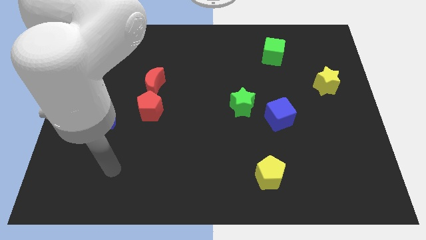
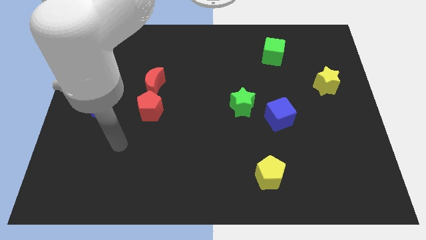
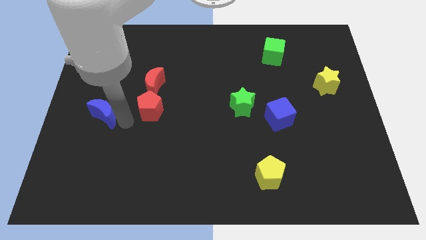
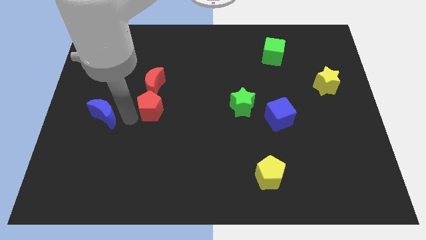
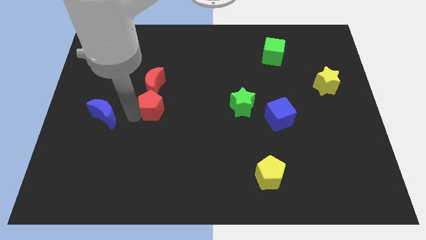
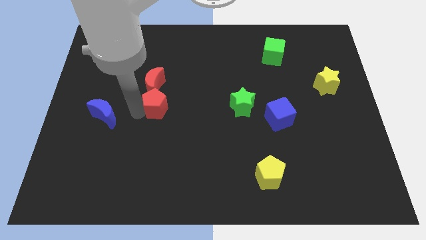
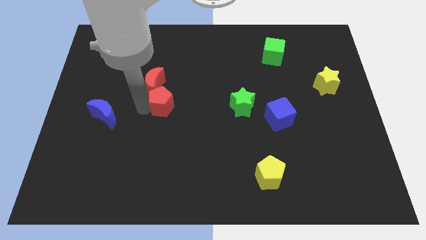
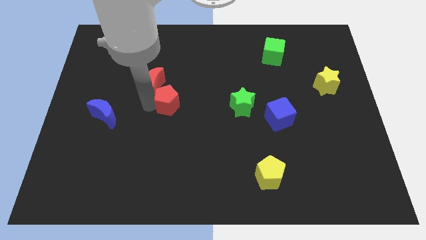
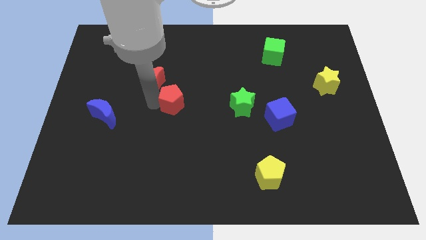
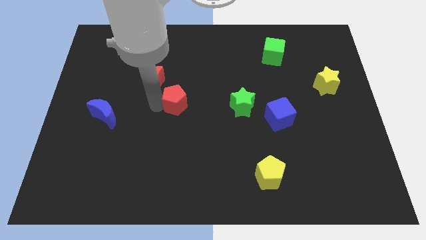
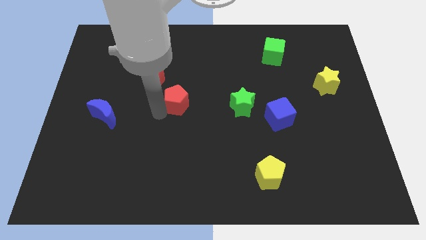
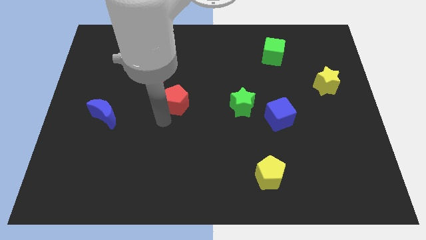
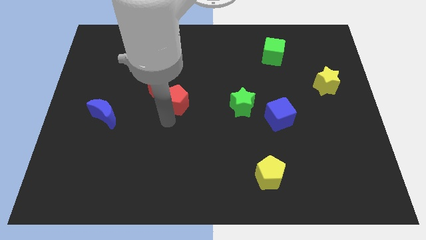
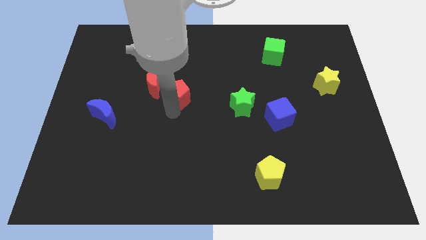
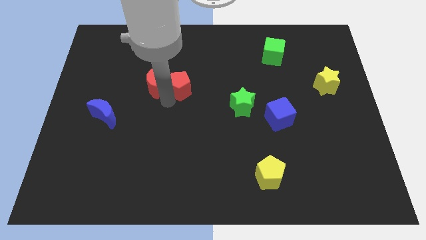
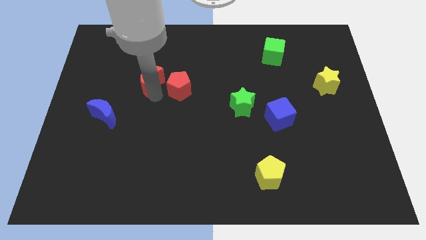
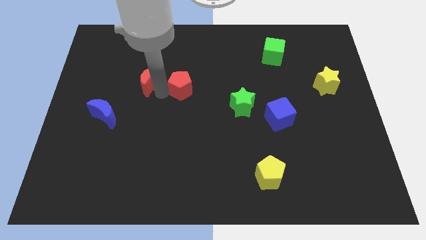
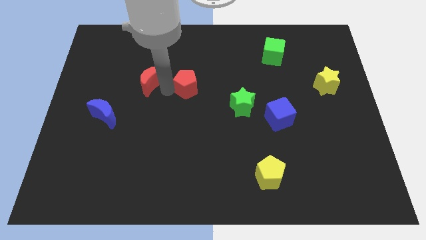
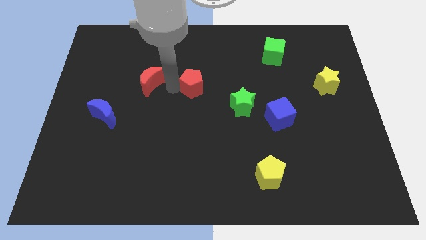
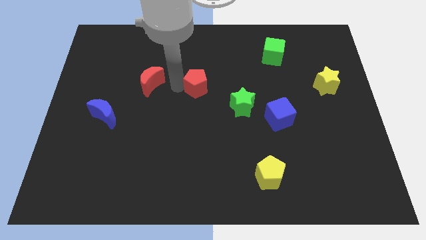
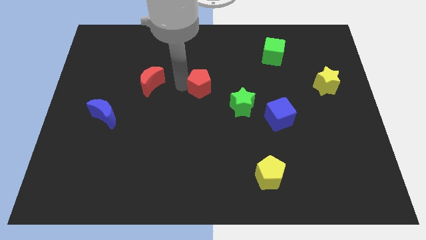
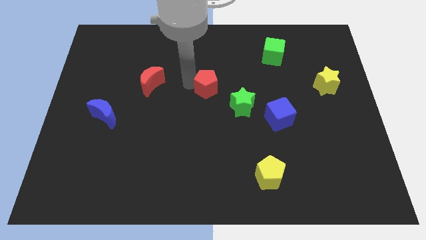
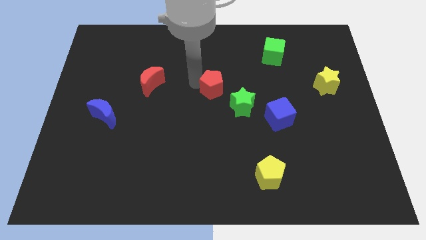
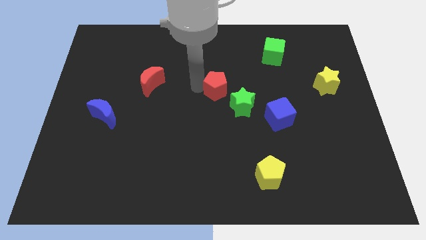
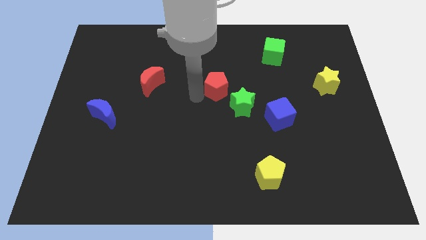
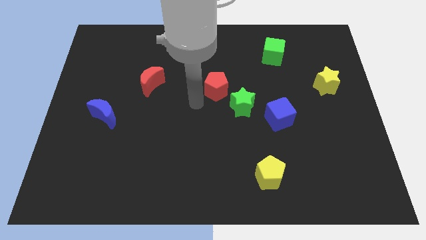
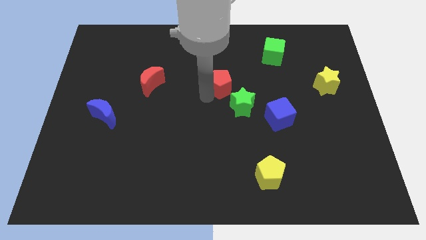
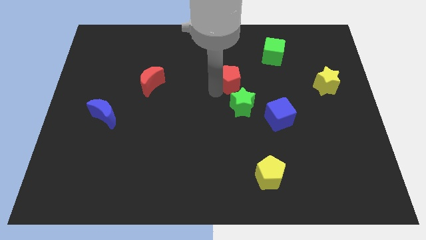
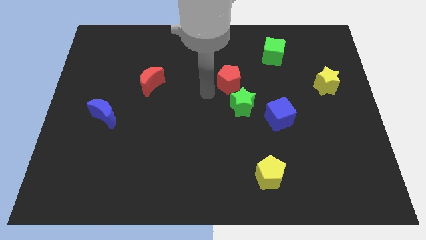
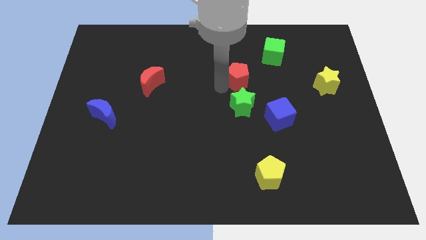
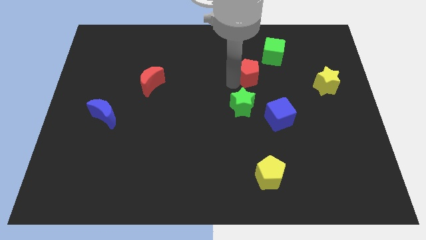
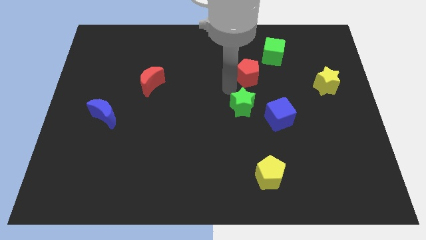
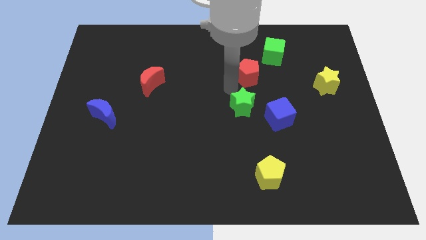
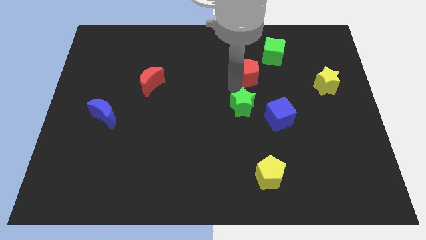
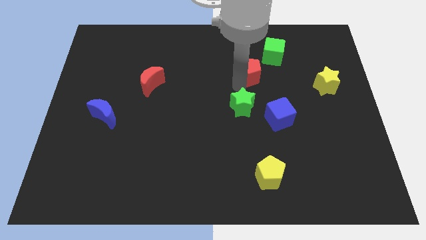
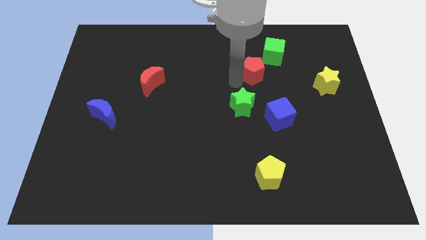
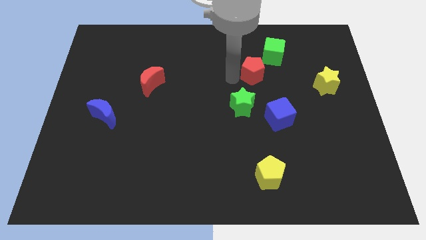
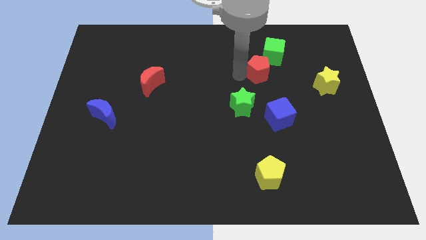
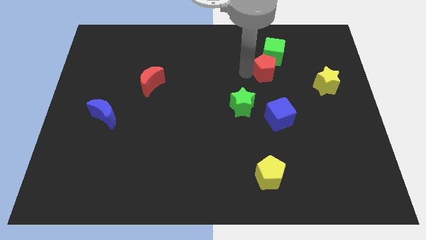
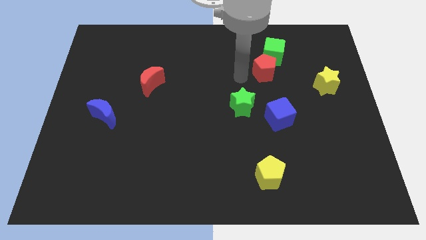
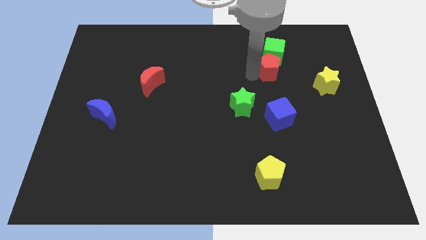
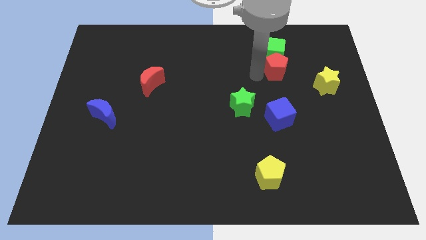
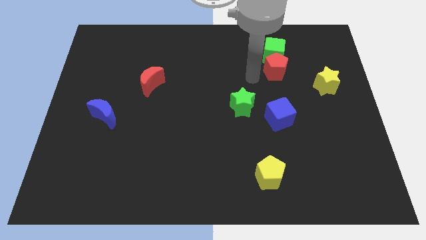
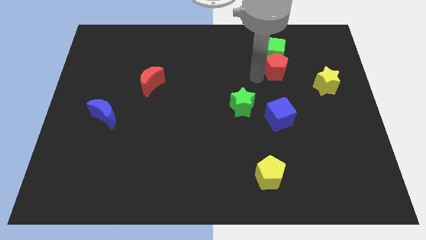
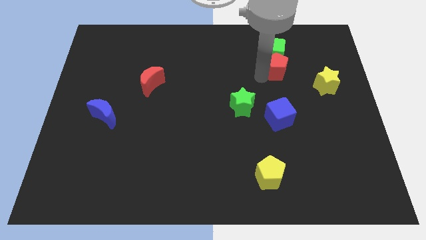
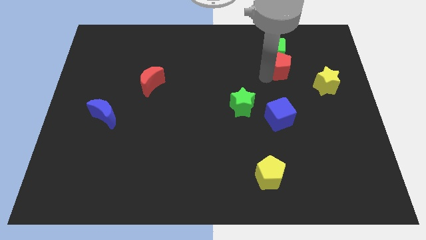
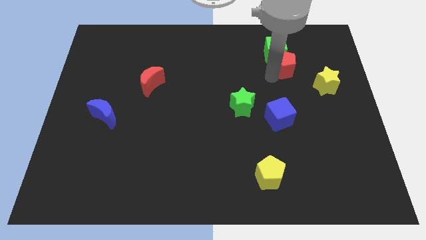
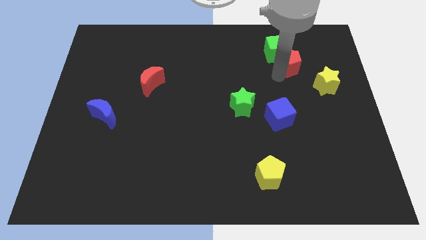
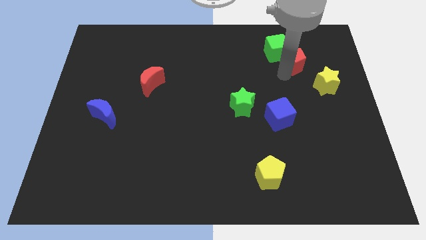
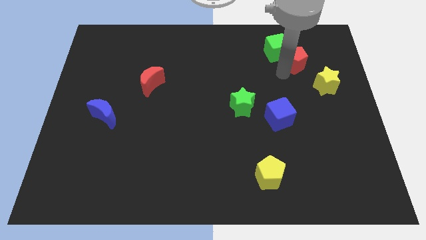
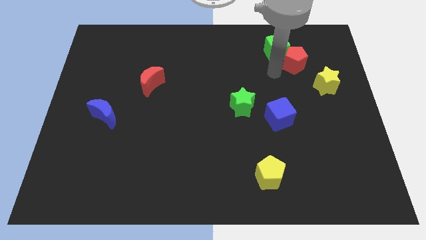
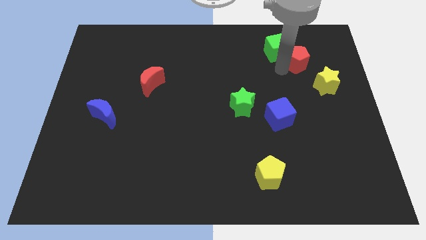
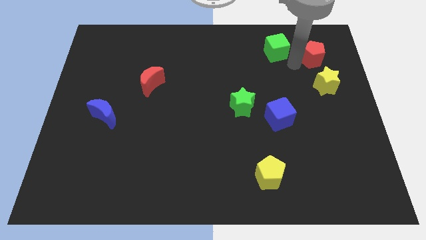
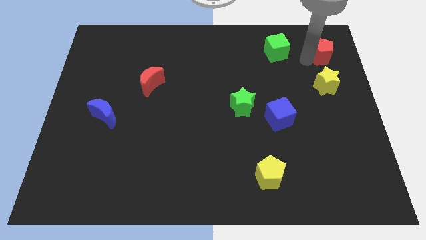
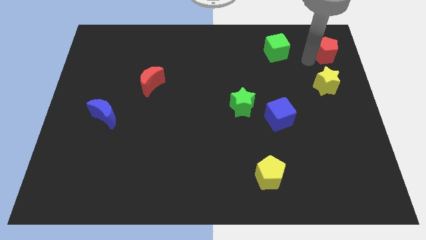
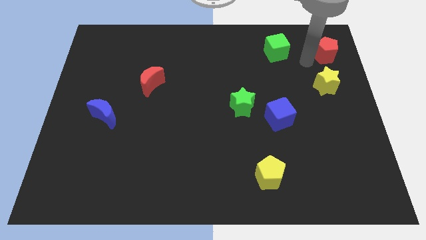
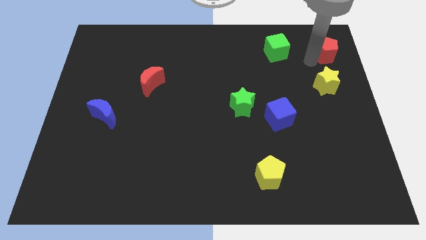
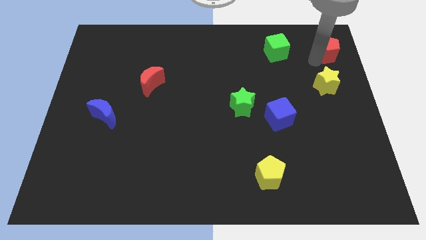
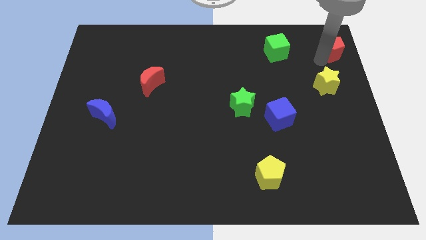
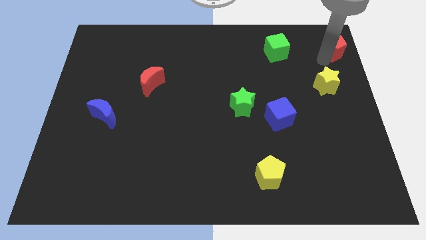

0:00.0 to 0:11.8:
put the red pentagon to the upper right corner
